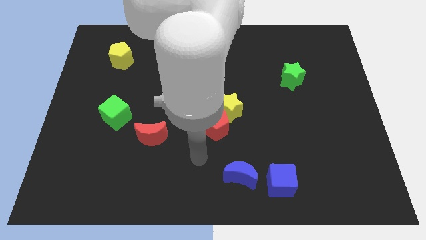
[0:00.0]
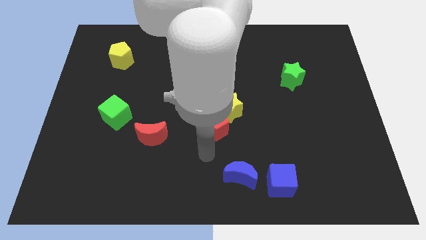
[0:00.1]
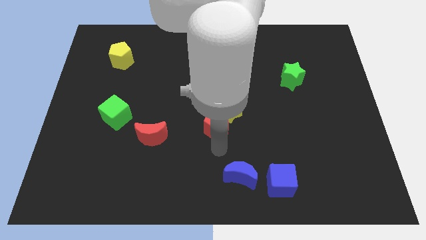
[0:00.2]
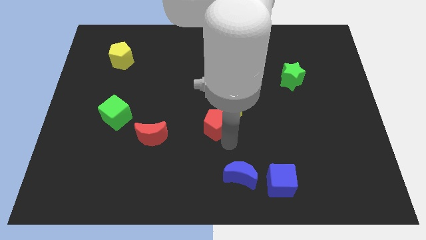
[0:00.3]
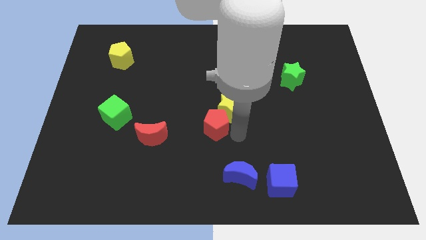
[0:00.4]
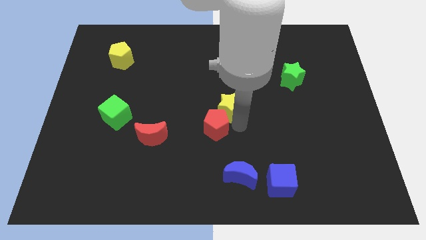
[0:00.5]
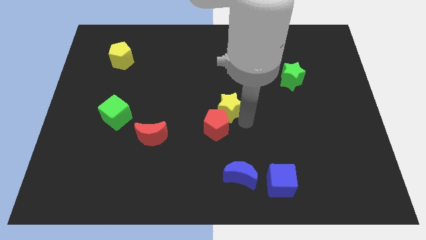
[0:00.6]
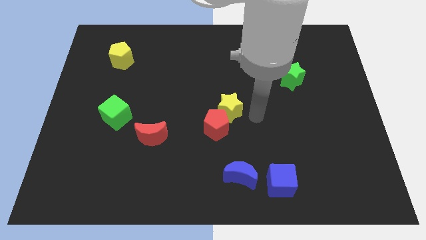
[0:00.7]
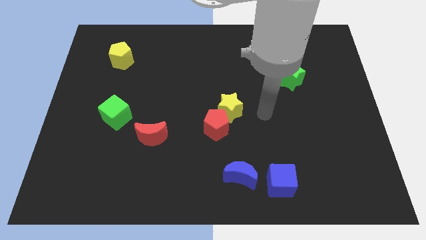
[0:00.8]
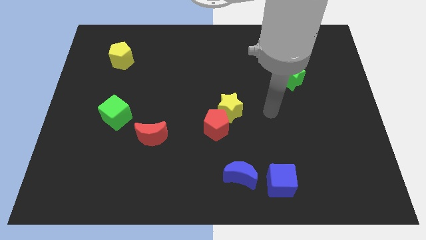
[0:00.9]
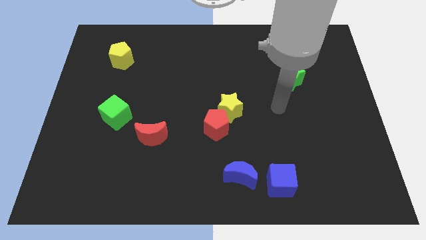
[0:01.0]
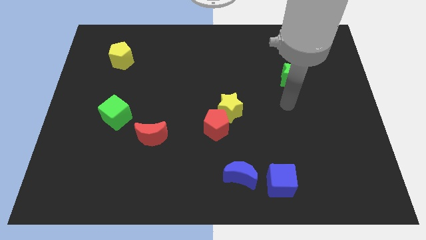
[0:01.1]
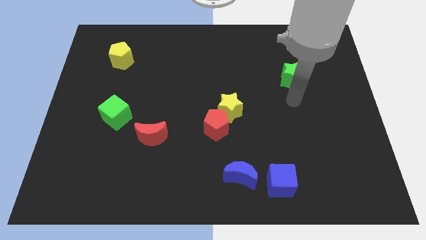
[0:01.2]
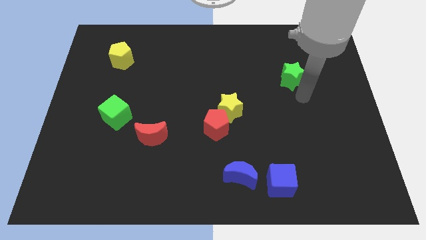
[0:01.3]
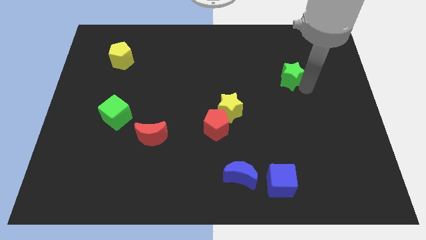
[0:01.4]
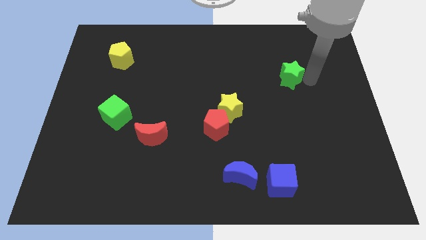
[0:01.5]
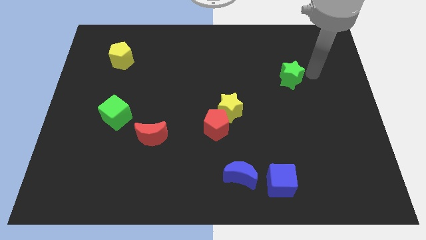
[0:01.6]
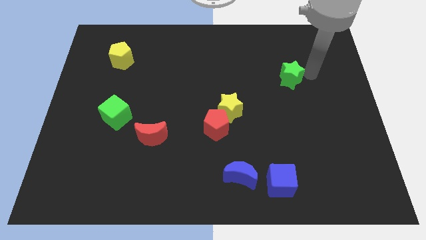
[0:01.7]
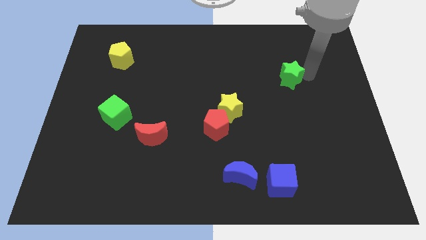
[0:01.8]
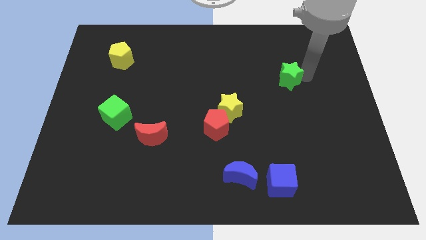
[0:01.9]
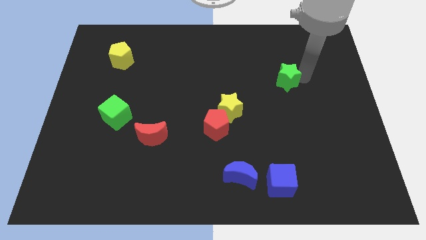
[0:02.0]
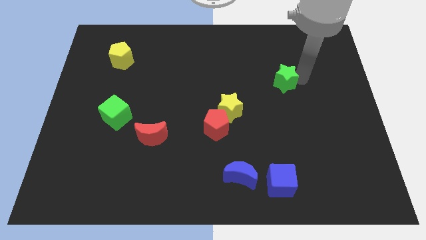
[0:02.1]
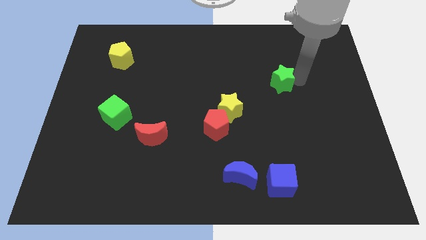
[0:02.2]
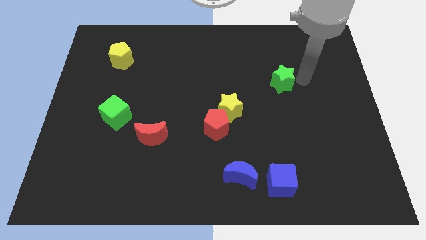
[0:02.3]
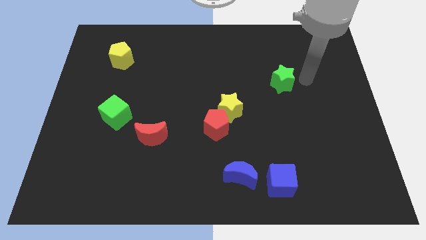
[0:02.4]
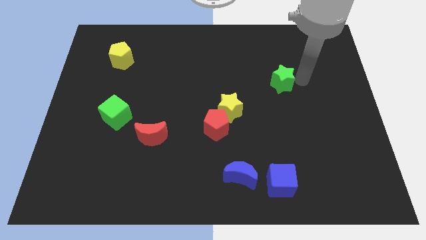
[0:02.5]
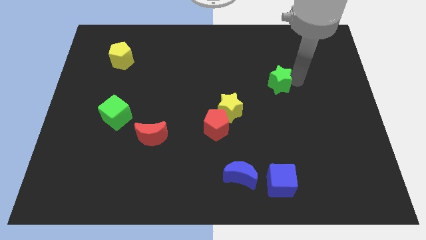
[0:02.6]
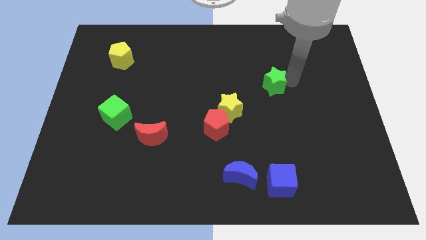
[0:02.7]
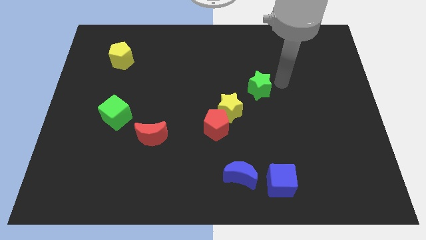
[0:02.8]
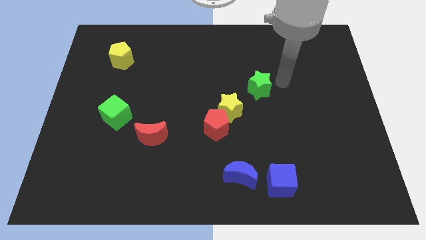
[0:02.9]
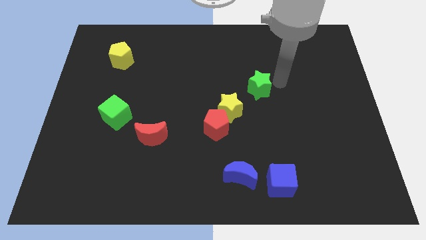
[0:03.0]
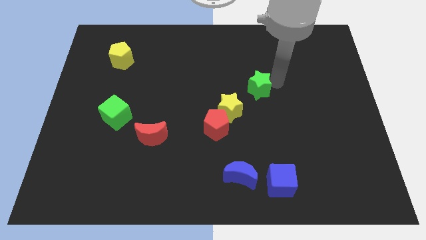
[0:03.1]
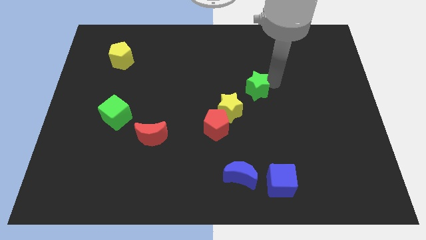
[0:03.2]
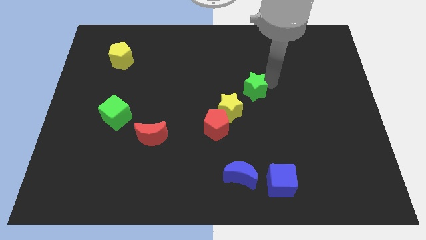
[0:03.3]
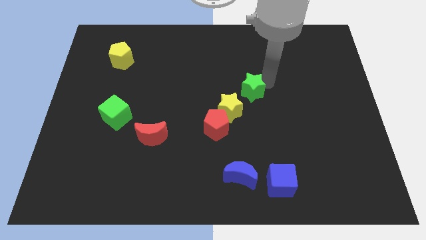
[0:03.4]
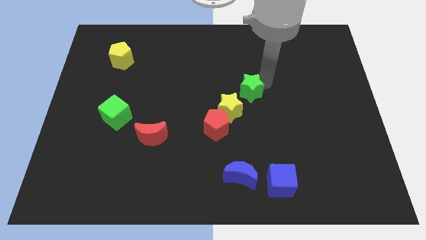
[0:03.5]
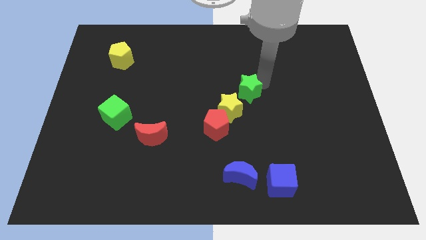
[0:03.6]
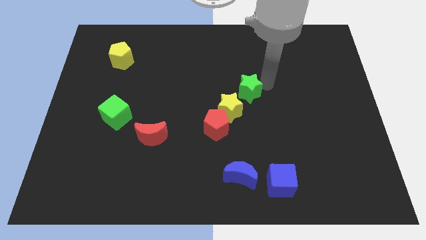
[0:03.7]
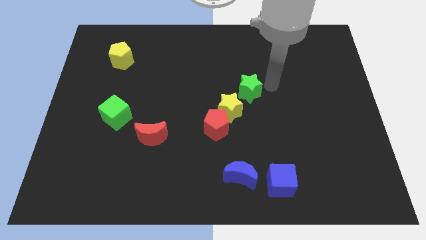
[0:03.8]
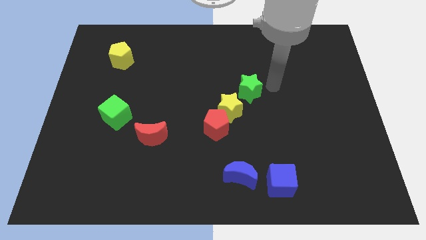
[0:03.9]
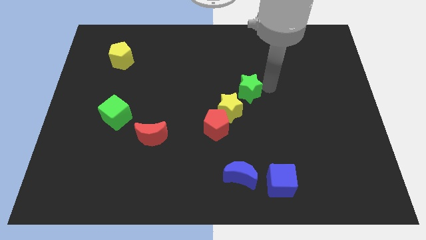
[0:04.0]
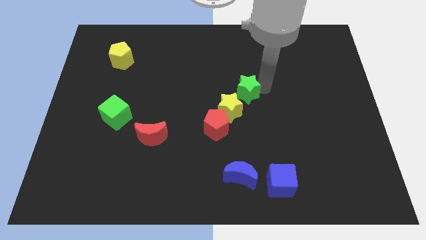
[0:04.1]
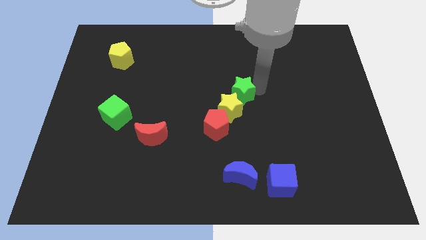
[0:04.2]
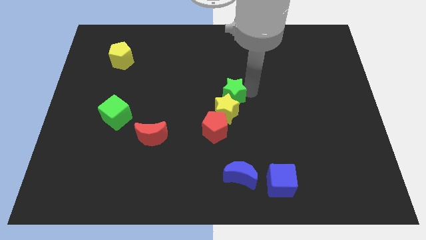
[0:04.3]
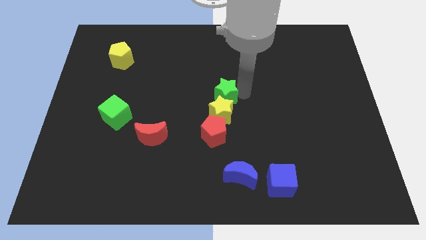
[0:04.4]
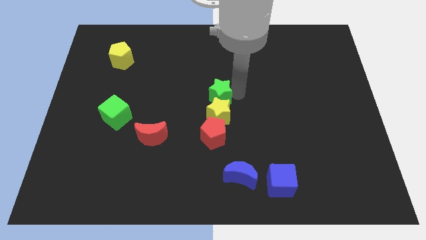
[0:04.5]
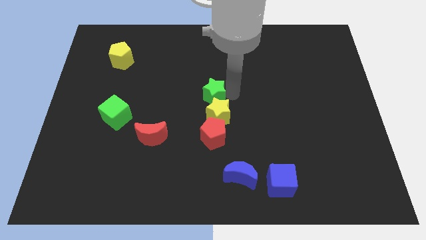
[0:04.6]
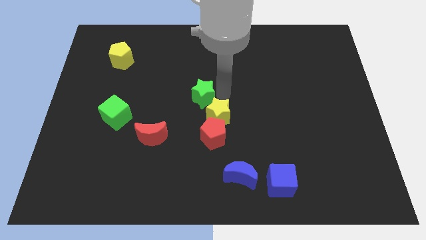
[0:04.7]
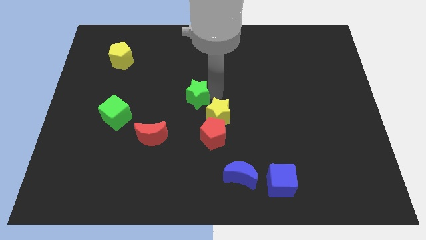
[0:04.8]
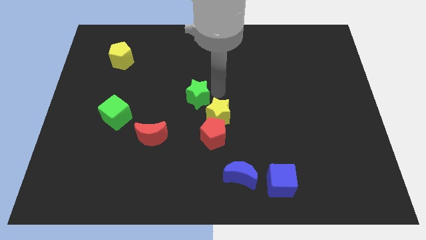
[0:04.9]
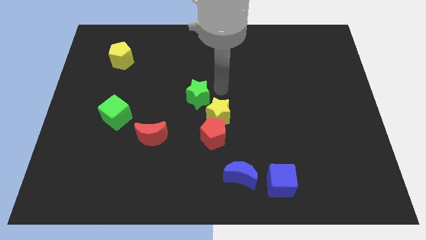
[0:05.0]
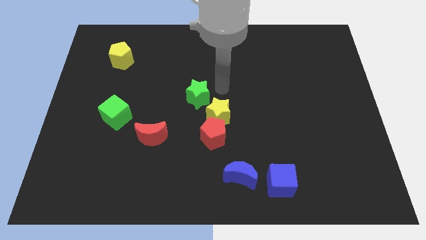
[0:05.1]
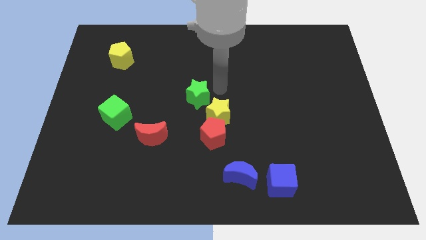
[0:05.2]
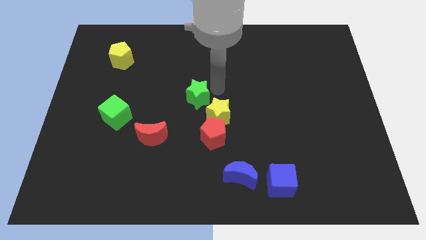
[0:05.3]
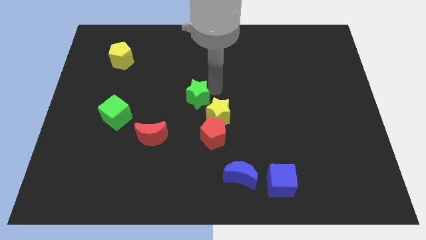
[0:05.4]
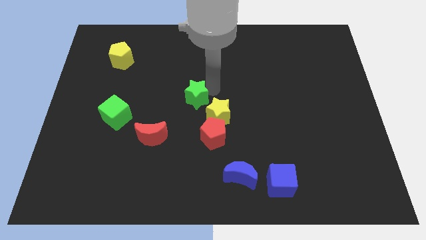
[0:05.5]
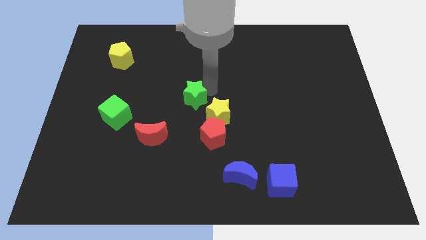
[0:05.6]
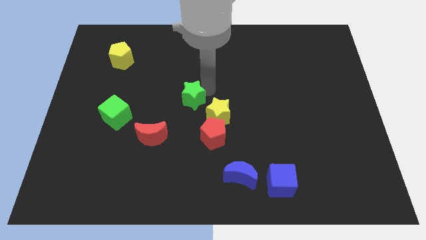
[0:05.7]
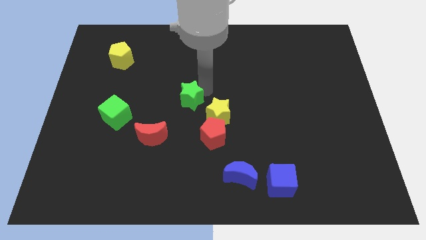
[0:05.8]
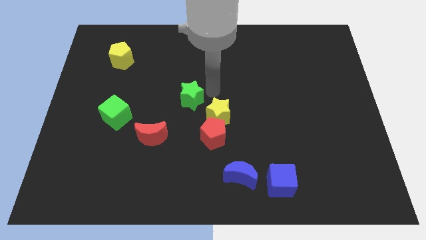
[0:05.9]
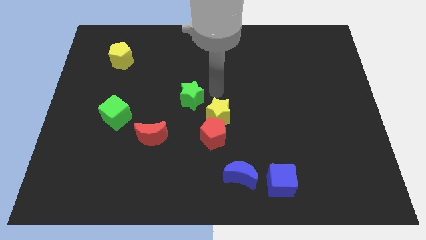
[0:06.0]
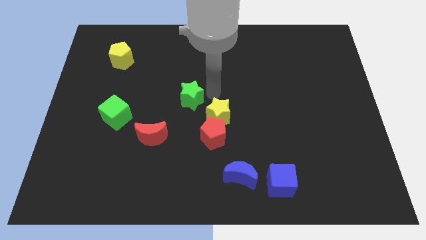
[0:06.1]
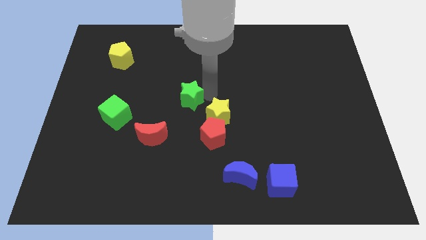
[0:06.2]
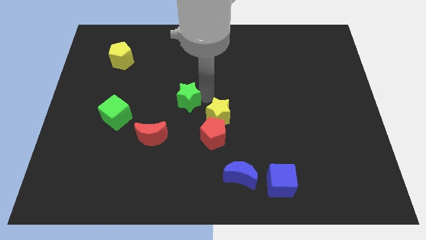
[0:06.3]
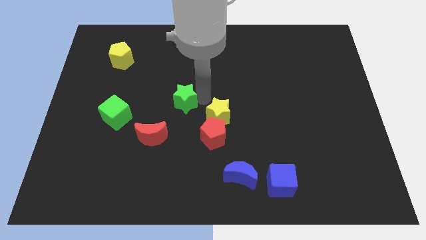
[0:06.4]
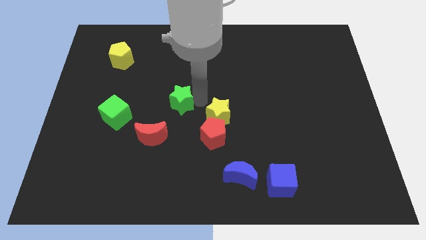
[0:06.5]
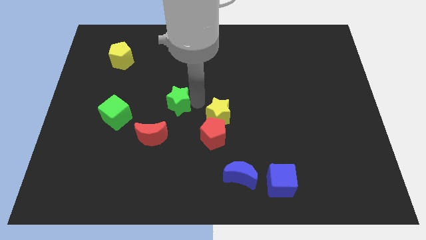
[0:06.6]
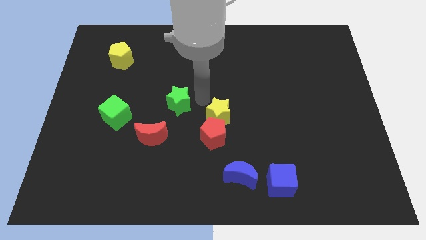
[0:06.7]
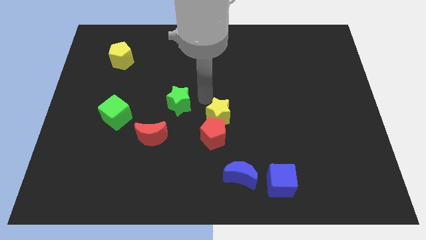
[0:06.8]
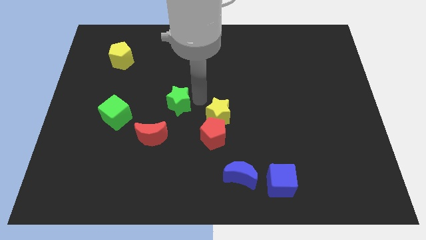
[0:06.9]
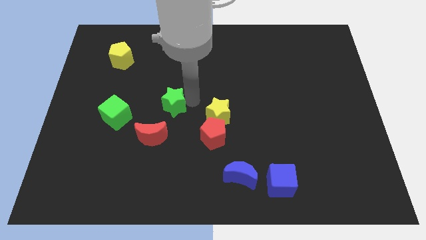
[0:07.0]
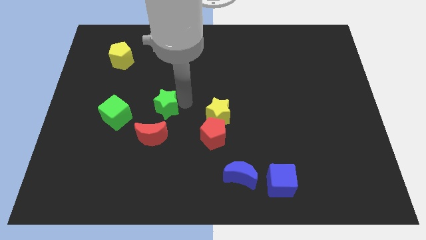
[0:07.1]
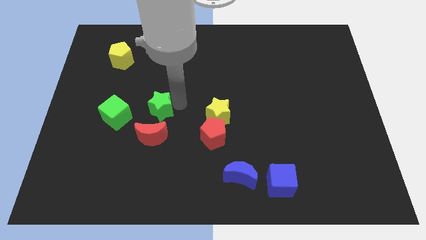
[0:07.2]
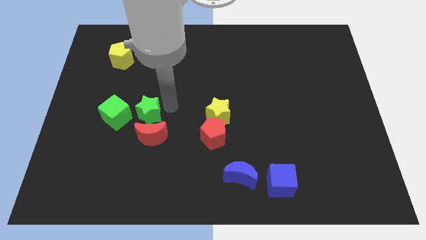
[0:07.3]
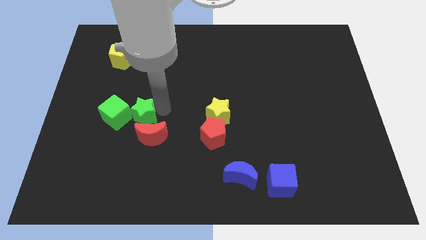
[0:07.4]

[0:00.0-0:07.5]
slide the green star next to the green cube
